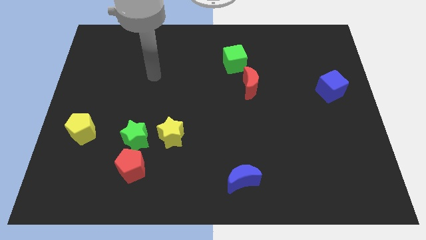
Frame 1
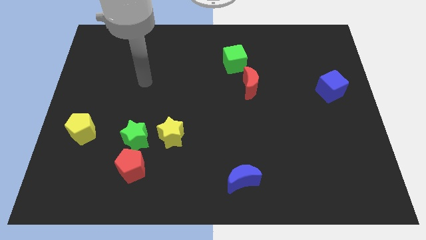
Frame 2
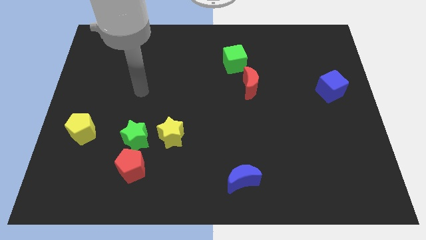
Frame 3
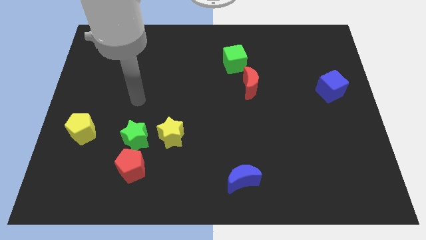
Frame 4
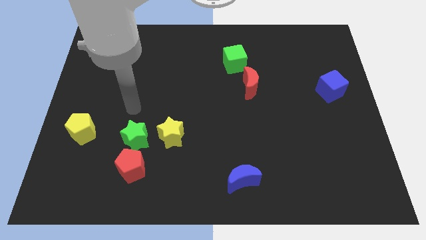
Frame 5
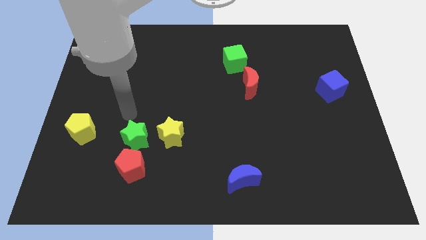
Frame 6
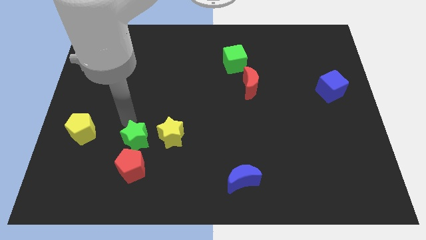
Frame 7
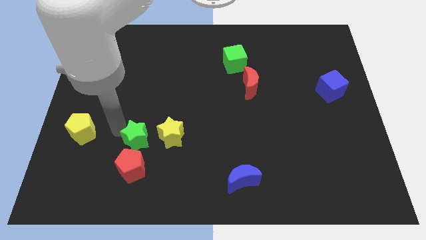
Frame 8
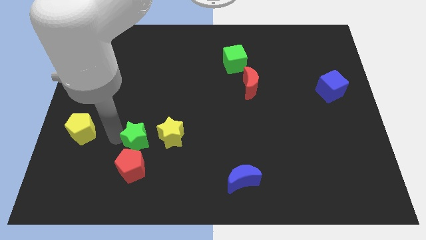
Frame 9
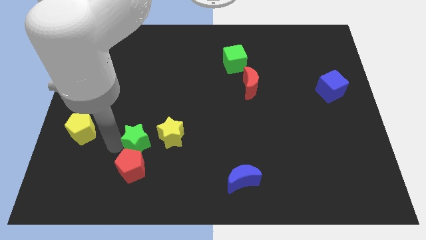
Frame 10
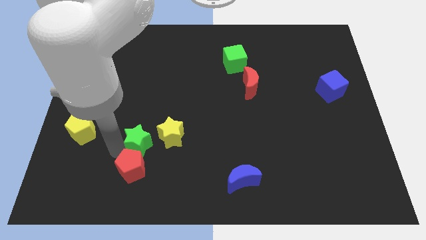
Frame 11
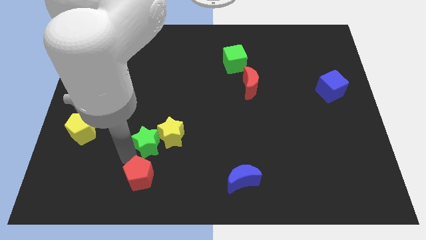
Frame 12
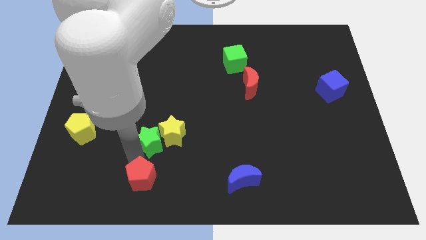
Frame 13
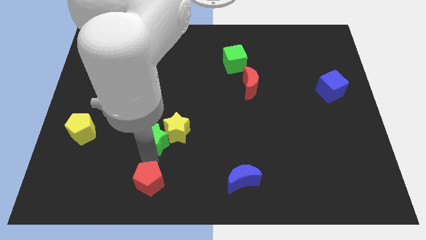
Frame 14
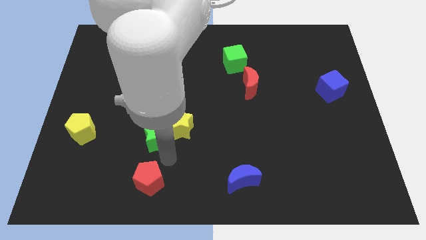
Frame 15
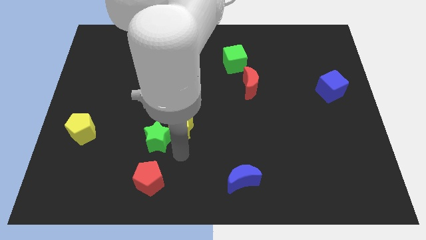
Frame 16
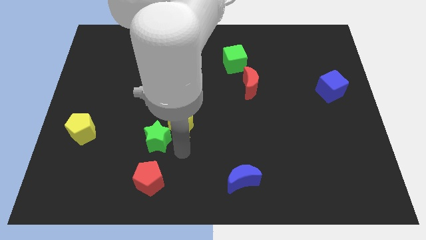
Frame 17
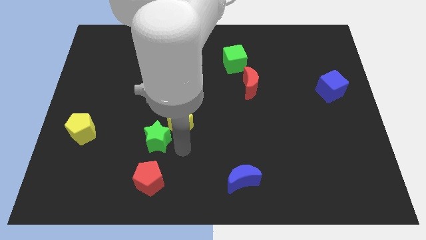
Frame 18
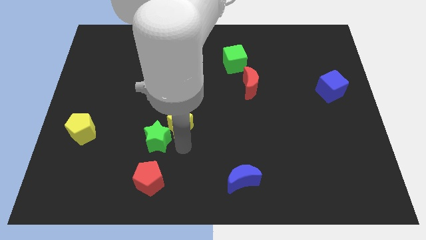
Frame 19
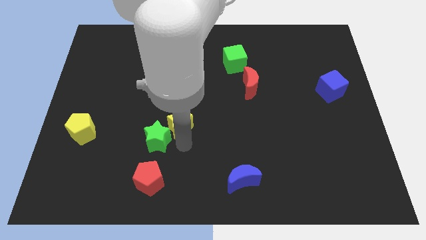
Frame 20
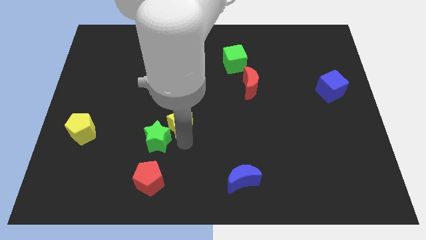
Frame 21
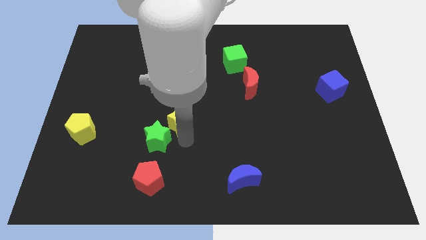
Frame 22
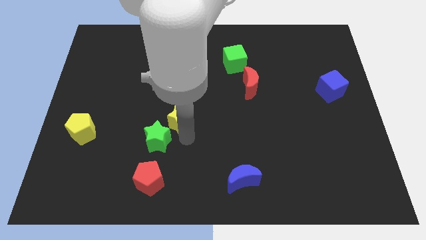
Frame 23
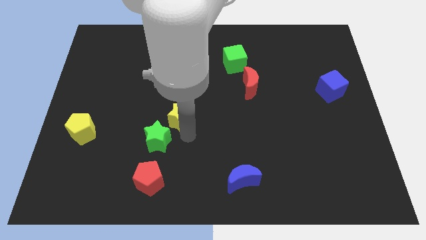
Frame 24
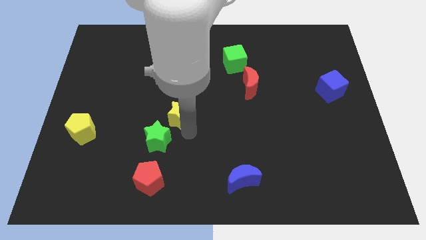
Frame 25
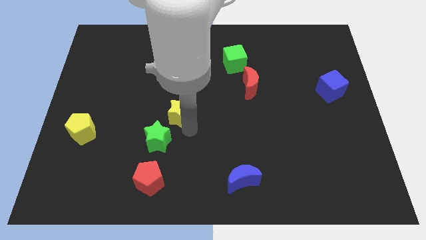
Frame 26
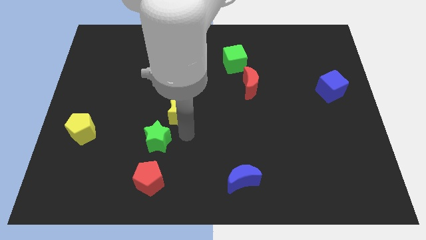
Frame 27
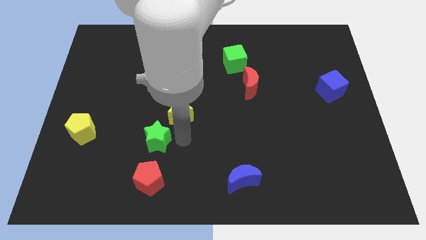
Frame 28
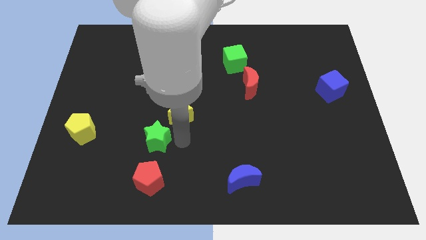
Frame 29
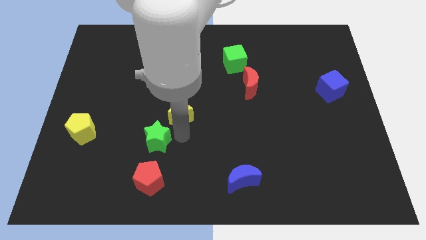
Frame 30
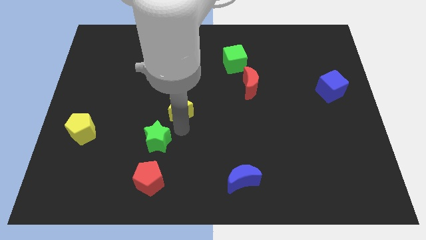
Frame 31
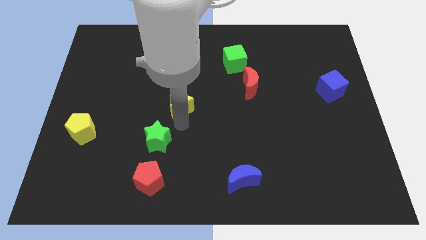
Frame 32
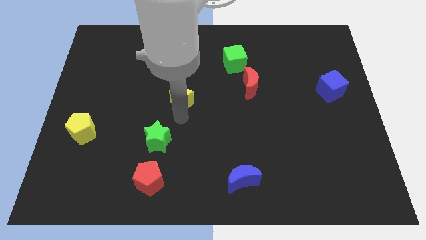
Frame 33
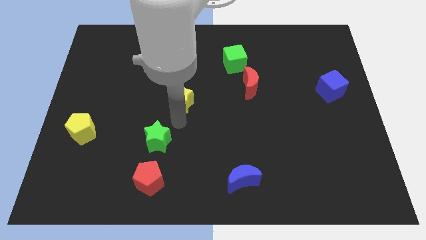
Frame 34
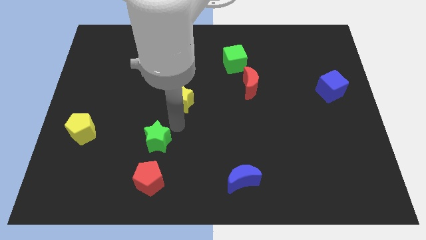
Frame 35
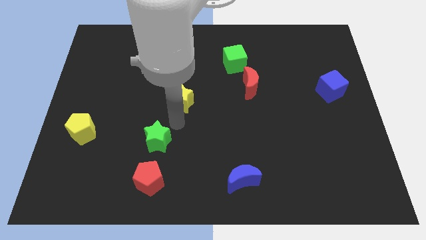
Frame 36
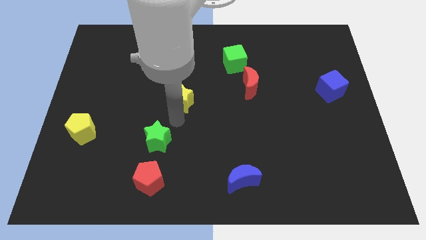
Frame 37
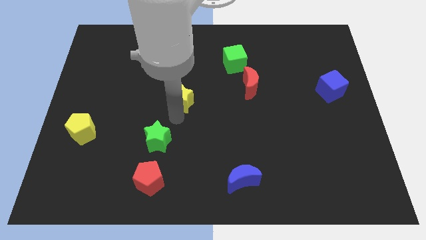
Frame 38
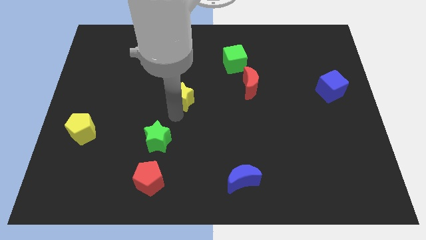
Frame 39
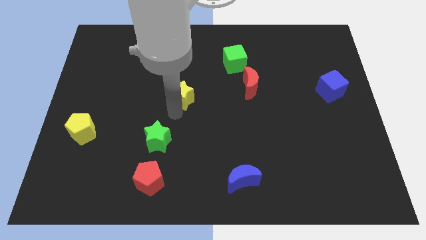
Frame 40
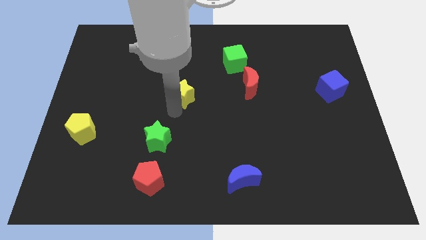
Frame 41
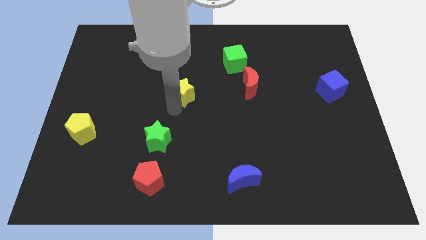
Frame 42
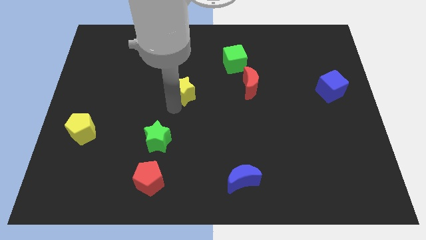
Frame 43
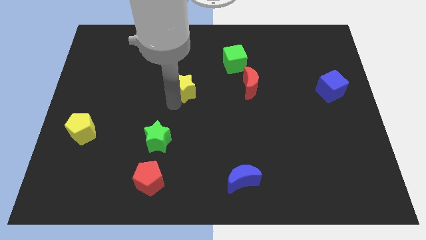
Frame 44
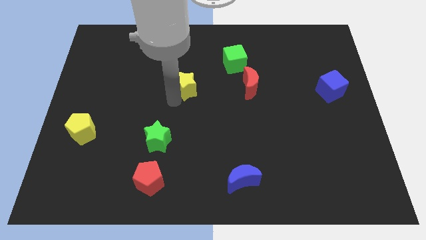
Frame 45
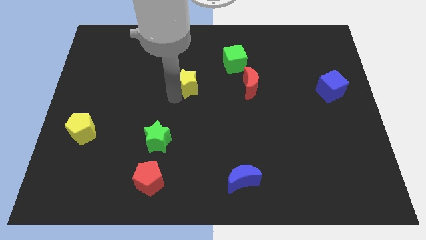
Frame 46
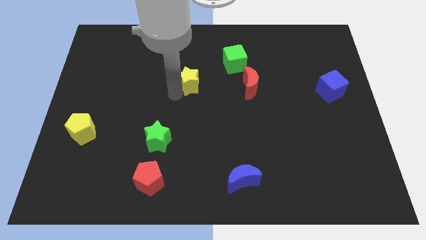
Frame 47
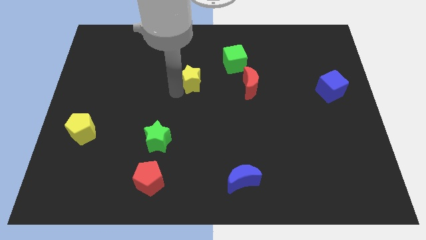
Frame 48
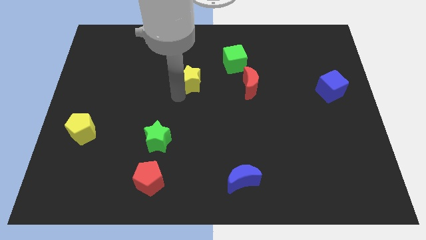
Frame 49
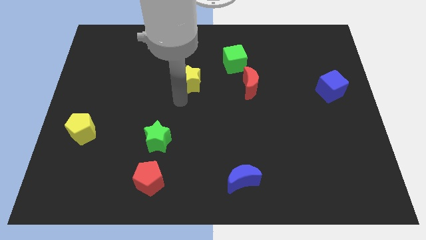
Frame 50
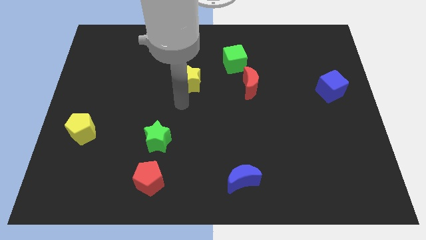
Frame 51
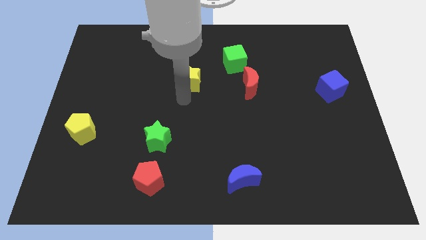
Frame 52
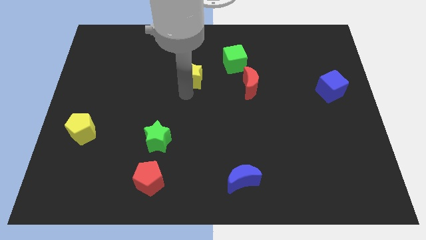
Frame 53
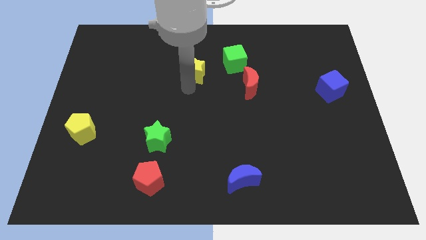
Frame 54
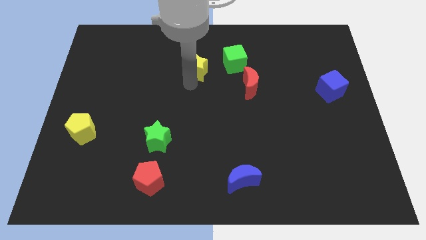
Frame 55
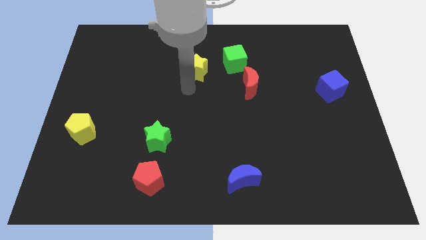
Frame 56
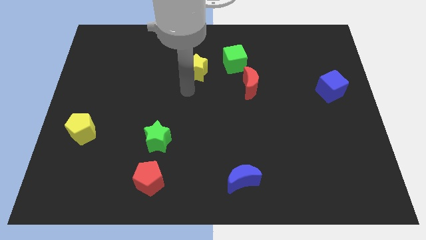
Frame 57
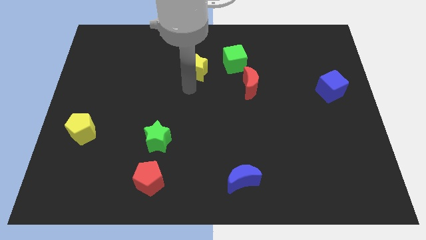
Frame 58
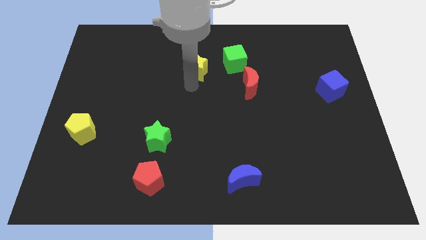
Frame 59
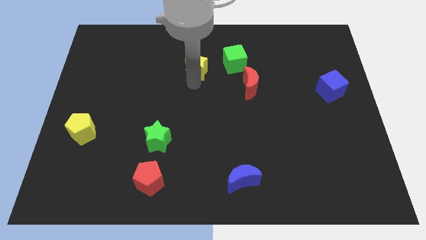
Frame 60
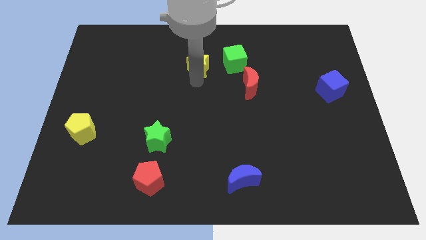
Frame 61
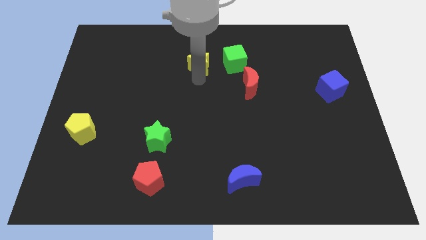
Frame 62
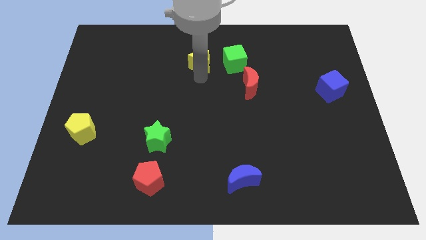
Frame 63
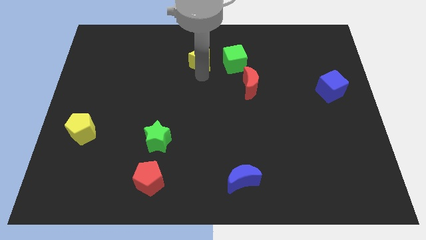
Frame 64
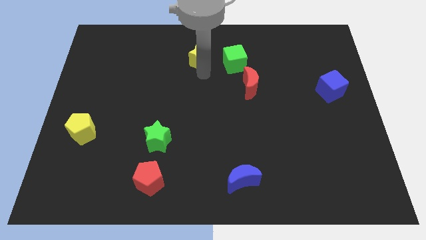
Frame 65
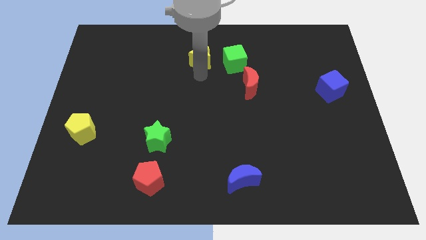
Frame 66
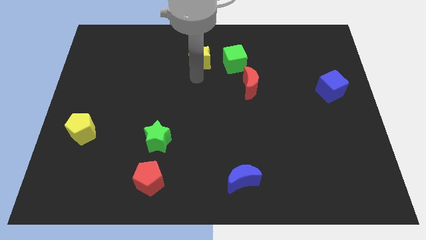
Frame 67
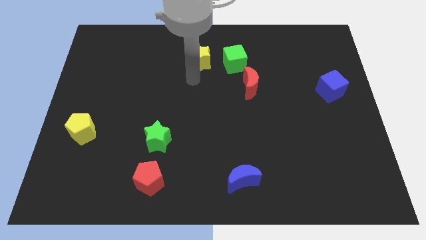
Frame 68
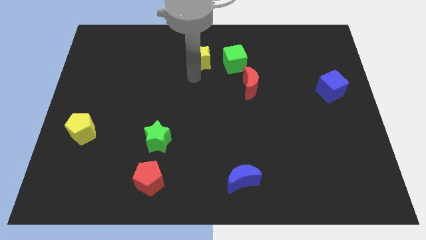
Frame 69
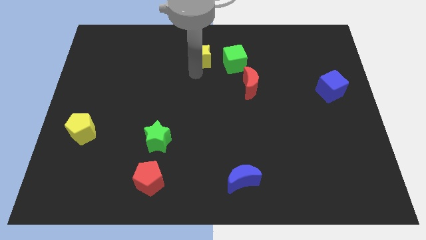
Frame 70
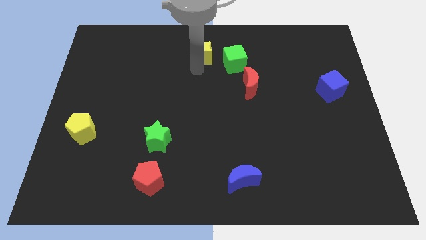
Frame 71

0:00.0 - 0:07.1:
put the yellow star to the towards your base
